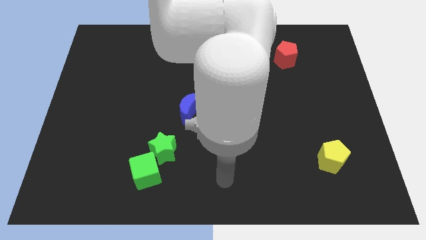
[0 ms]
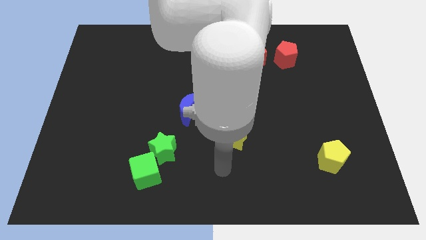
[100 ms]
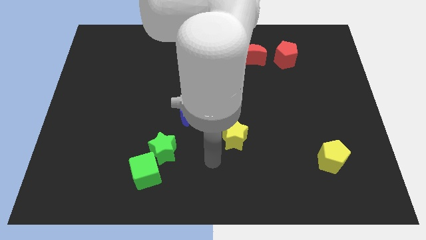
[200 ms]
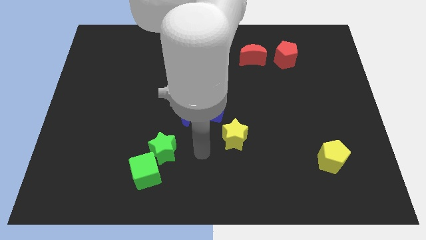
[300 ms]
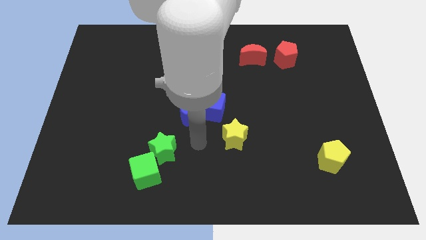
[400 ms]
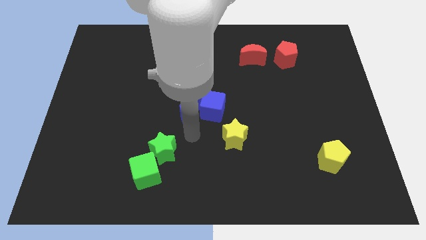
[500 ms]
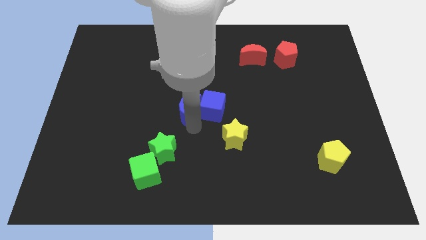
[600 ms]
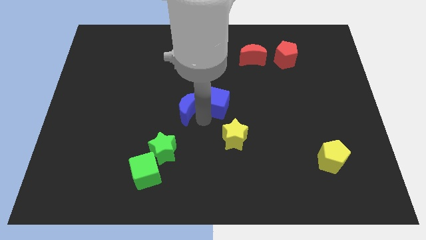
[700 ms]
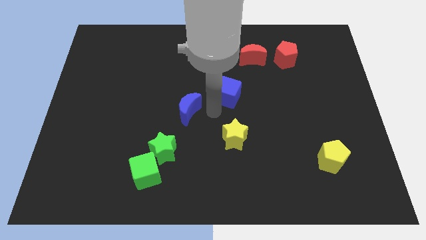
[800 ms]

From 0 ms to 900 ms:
move the blue moon away from the blue cube

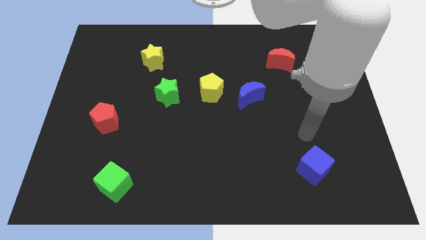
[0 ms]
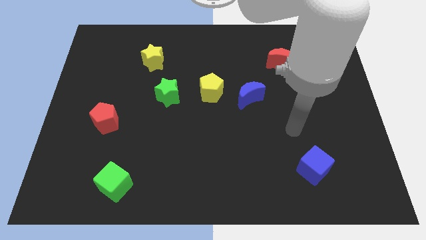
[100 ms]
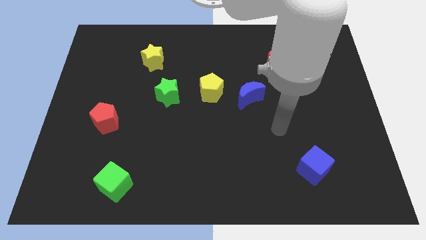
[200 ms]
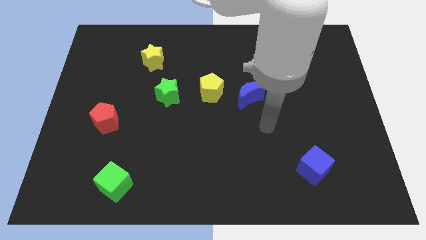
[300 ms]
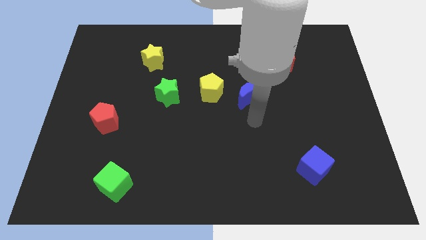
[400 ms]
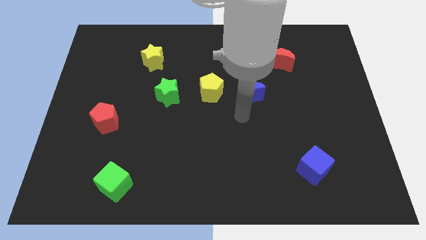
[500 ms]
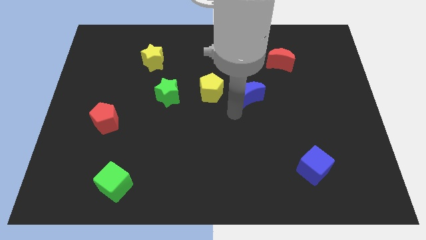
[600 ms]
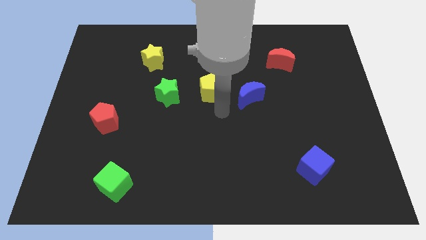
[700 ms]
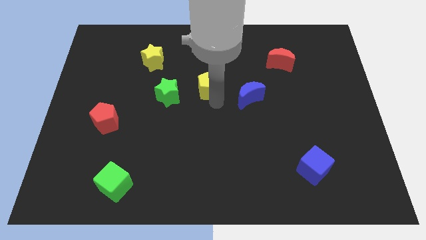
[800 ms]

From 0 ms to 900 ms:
move the blue moon away from the yellow pentagon

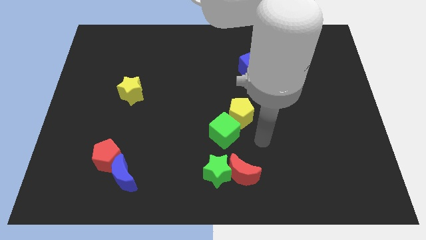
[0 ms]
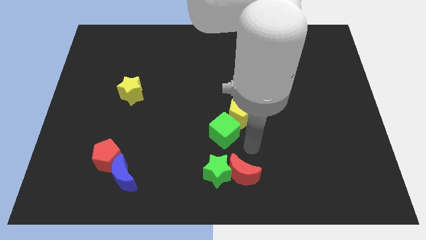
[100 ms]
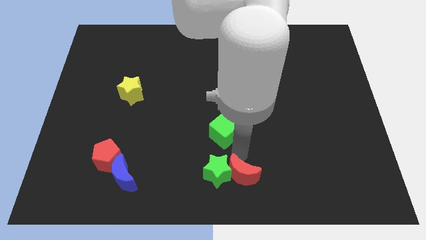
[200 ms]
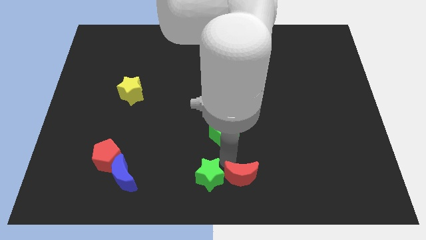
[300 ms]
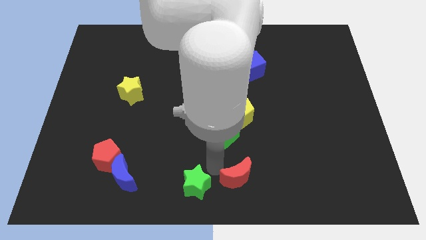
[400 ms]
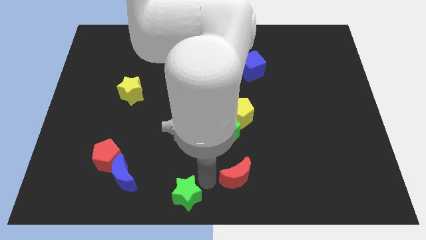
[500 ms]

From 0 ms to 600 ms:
separate the red moon from the green star

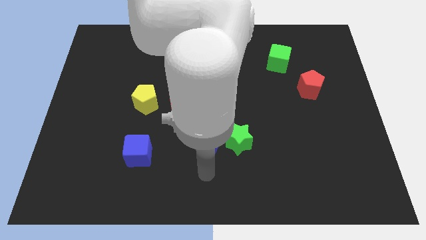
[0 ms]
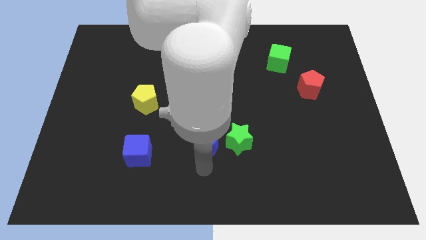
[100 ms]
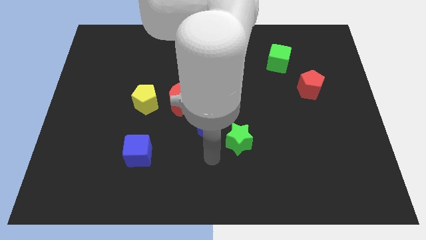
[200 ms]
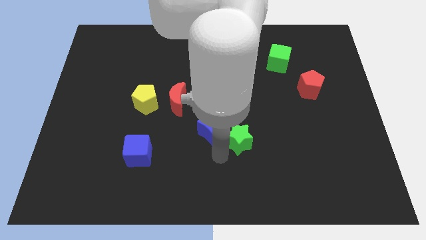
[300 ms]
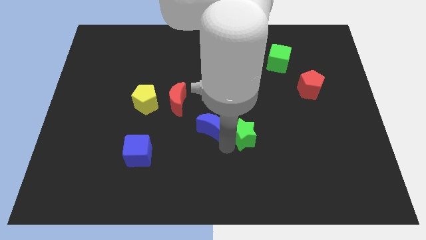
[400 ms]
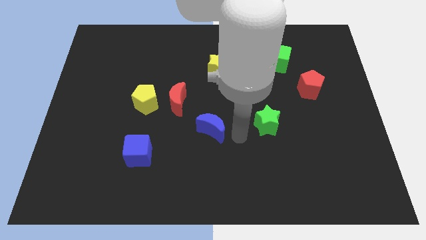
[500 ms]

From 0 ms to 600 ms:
separate the blue moon from the green star

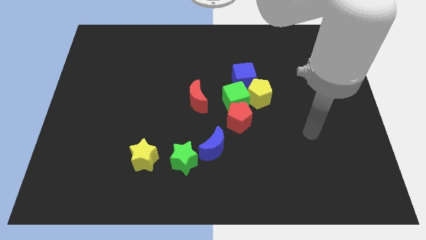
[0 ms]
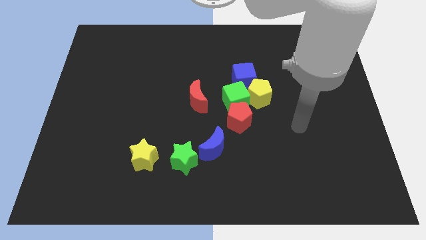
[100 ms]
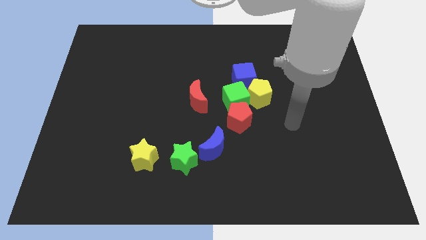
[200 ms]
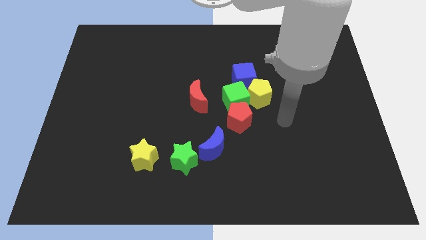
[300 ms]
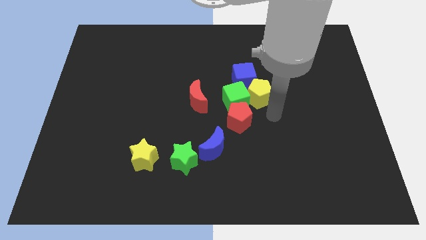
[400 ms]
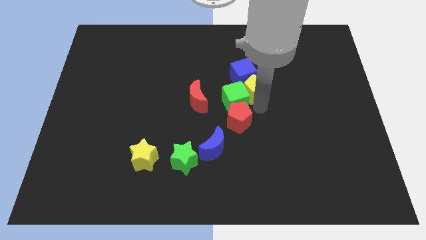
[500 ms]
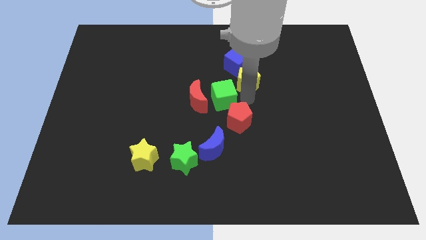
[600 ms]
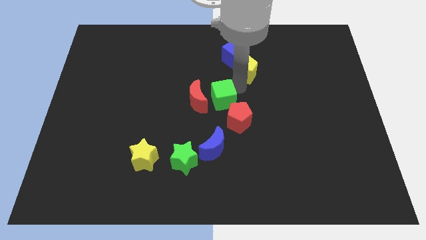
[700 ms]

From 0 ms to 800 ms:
separate the blue cube from the yellow pentagon and green cube

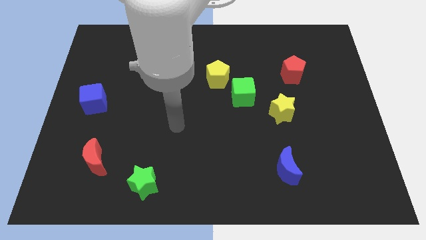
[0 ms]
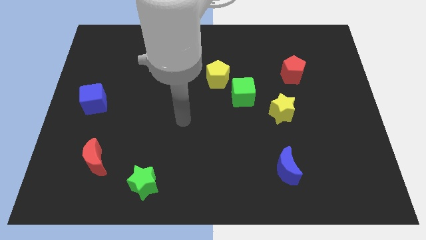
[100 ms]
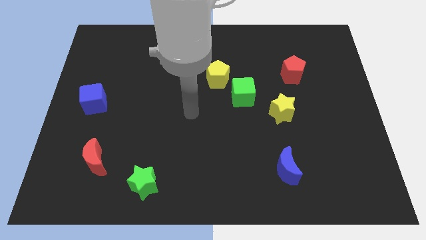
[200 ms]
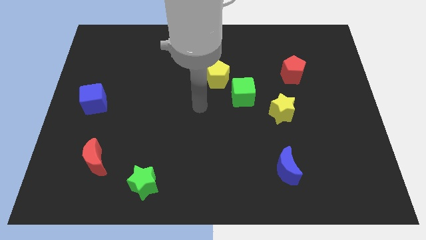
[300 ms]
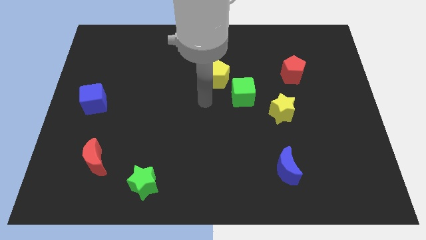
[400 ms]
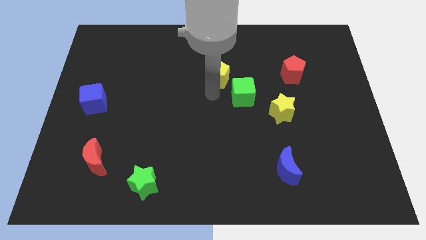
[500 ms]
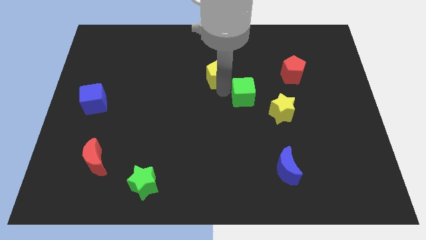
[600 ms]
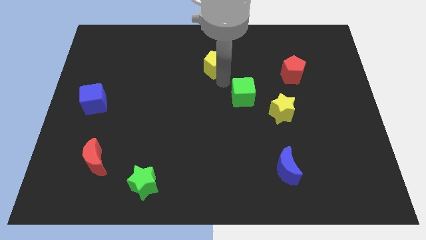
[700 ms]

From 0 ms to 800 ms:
separate the green cube from the yellow pentagon

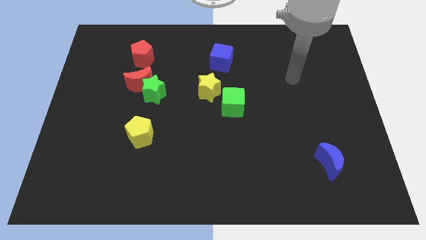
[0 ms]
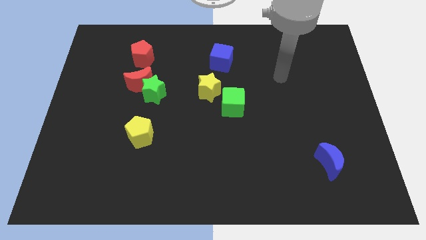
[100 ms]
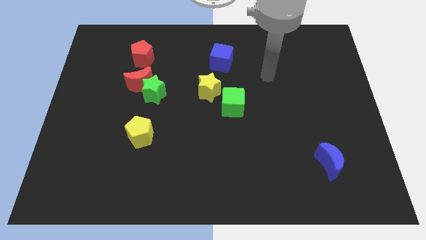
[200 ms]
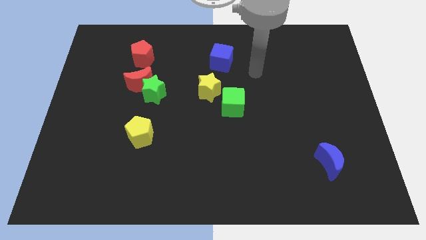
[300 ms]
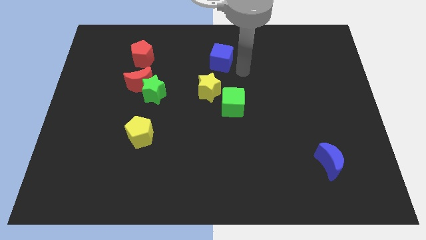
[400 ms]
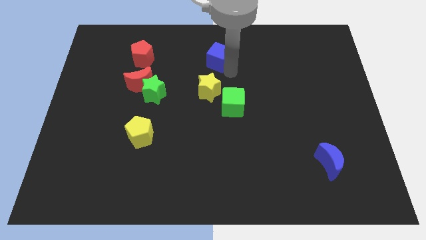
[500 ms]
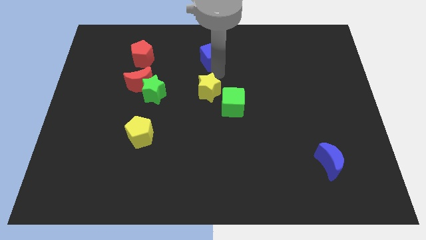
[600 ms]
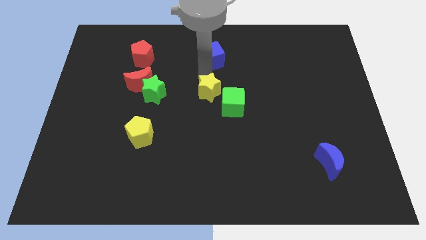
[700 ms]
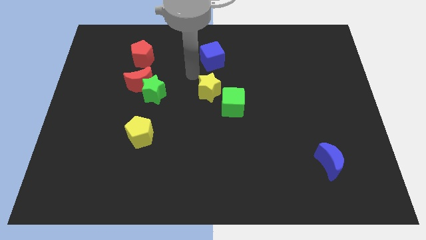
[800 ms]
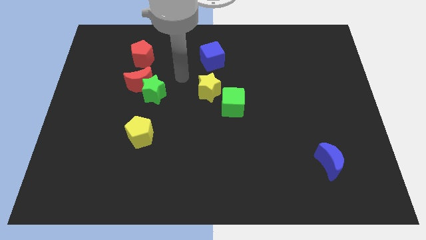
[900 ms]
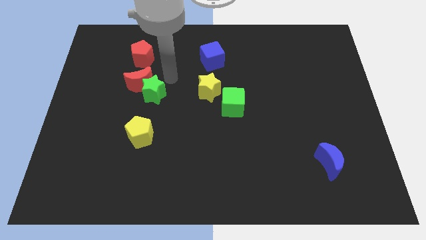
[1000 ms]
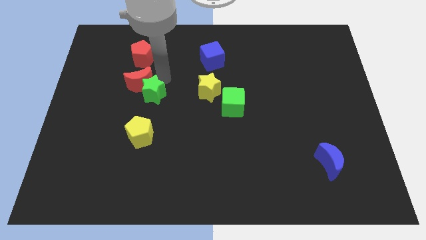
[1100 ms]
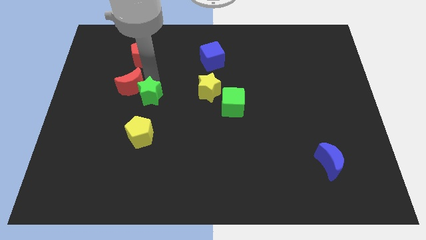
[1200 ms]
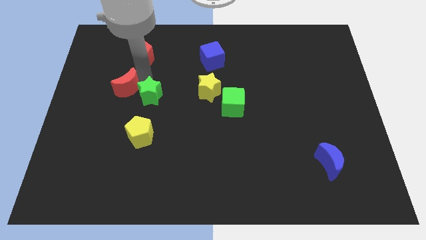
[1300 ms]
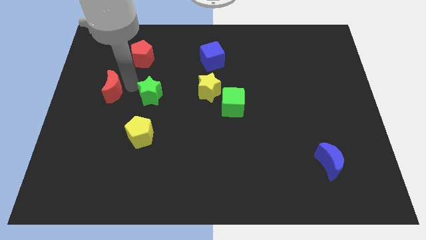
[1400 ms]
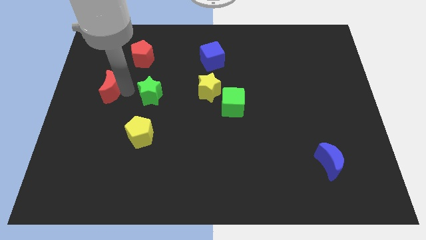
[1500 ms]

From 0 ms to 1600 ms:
pull the green star apart from the red moon

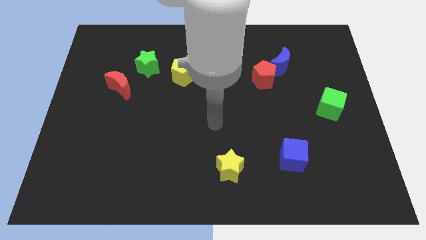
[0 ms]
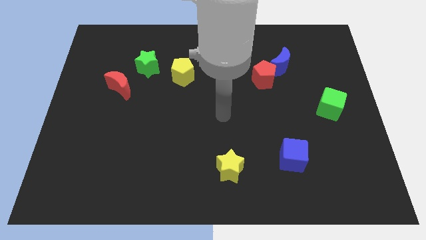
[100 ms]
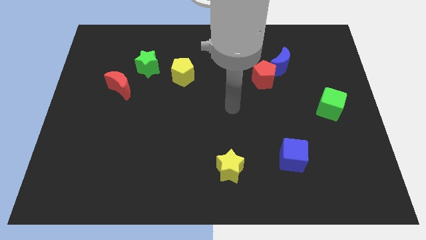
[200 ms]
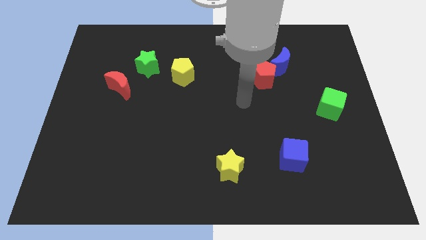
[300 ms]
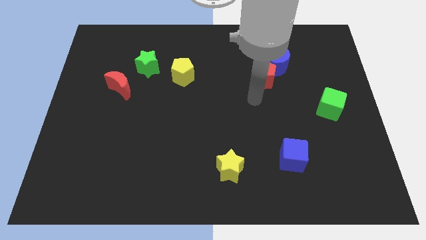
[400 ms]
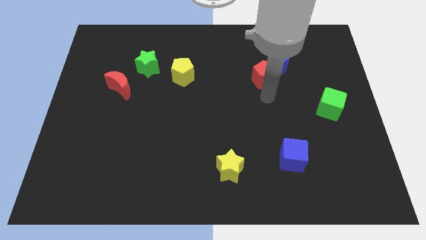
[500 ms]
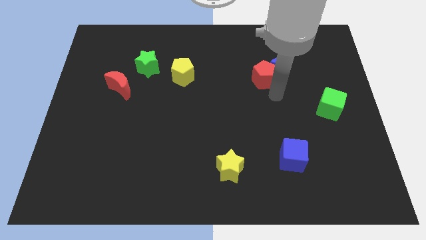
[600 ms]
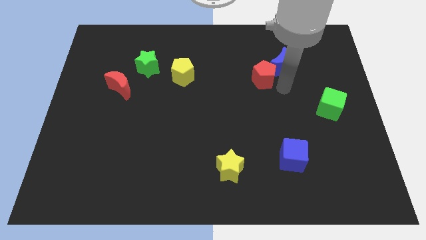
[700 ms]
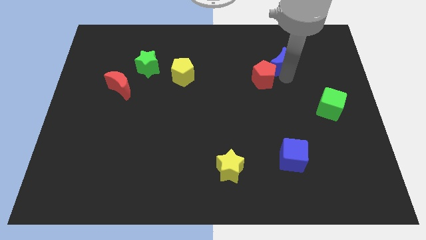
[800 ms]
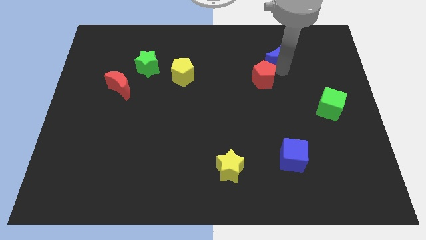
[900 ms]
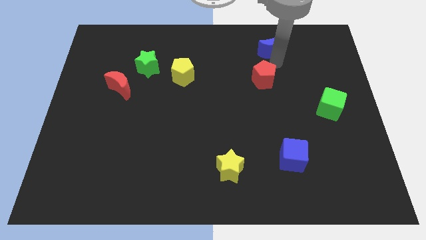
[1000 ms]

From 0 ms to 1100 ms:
separate the red pentagon from the blue moon

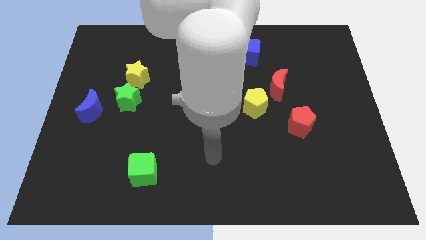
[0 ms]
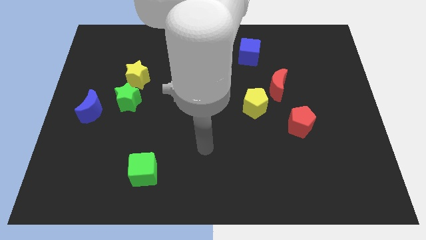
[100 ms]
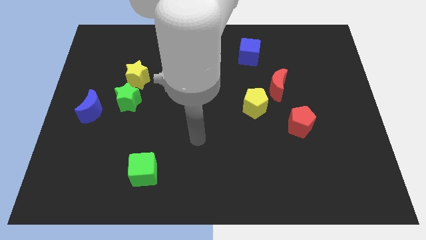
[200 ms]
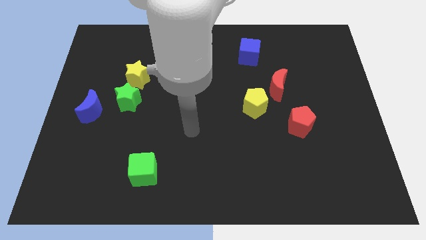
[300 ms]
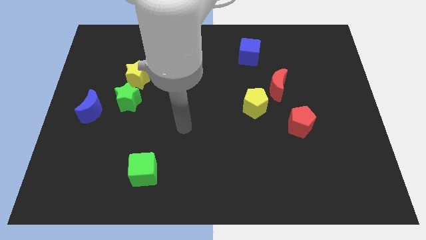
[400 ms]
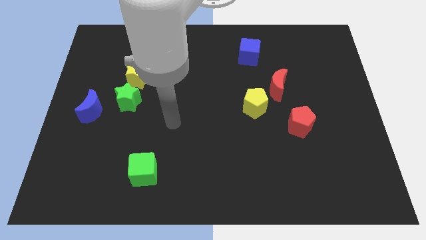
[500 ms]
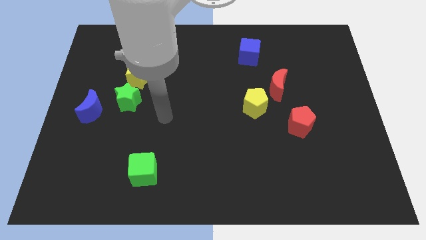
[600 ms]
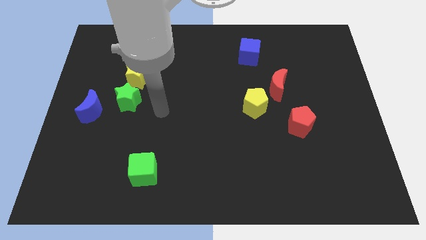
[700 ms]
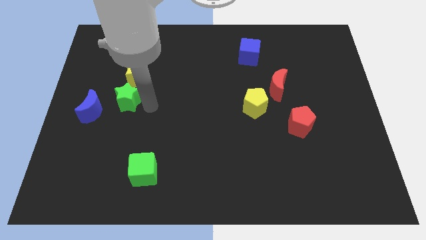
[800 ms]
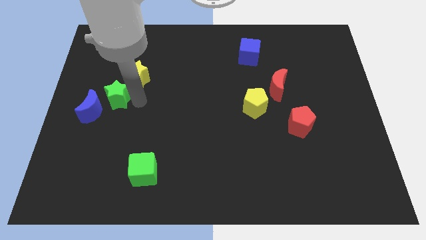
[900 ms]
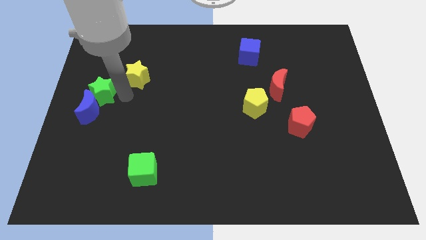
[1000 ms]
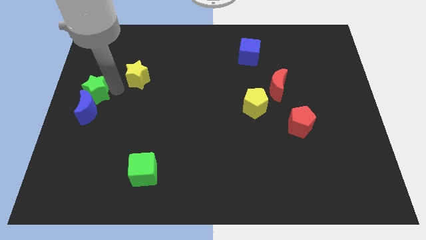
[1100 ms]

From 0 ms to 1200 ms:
pull the yellow star apart from the green star

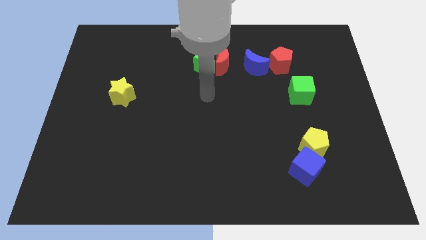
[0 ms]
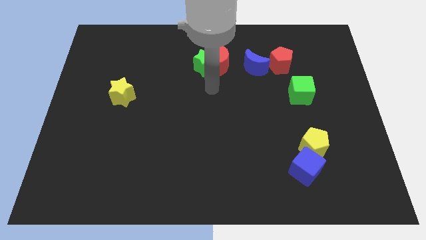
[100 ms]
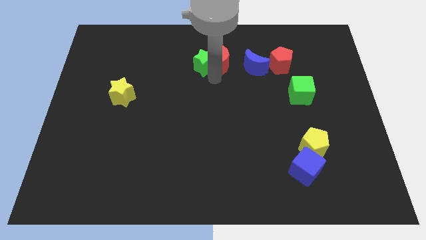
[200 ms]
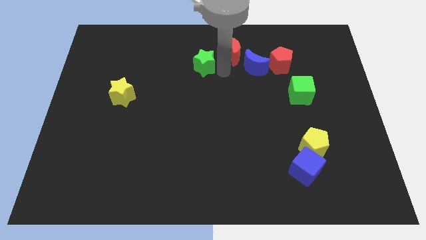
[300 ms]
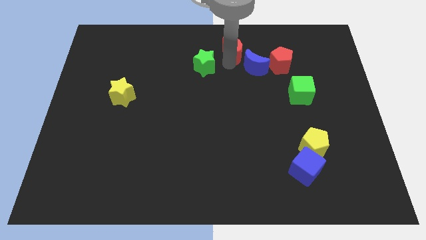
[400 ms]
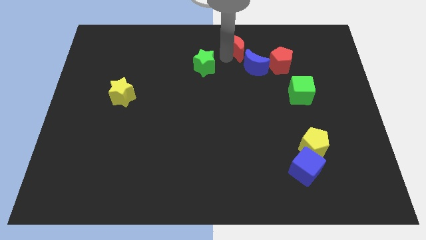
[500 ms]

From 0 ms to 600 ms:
separate the green star from the red moon

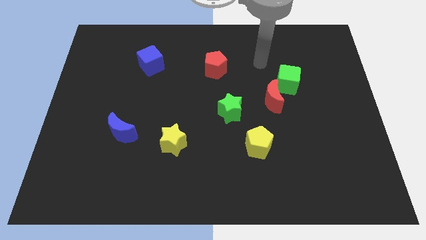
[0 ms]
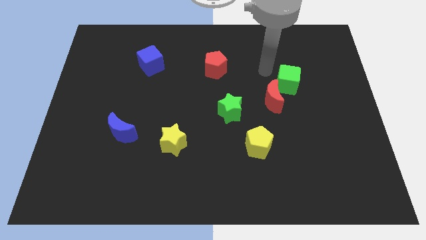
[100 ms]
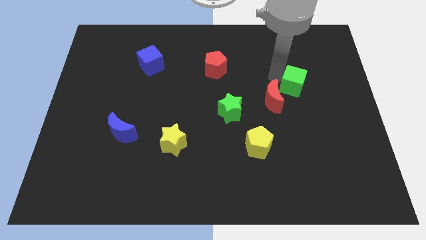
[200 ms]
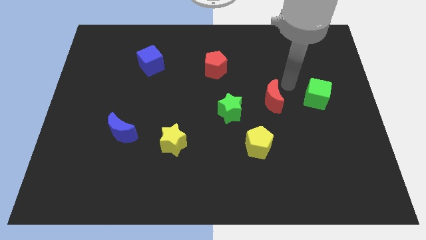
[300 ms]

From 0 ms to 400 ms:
move the red moon away from the green cube
